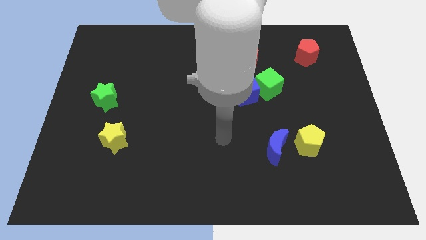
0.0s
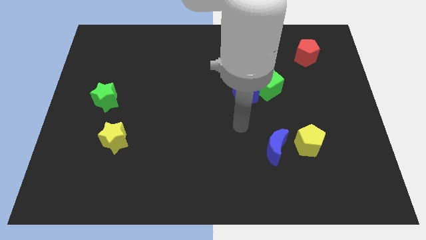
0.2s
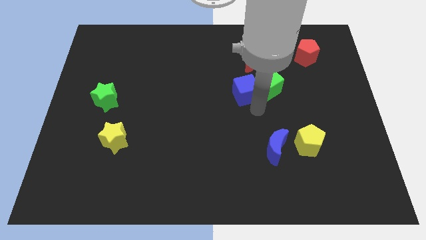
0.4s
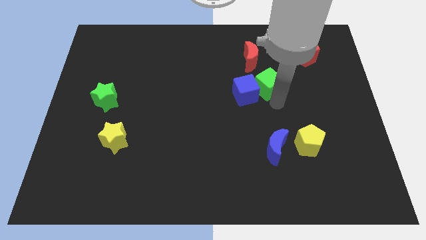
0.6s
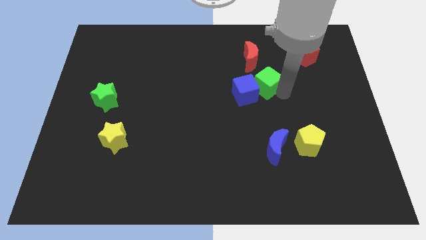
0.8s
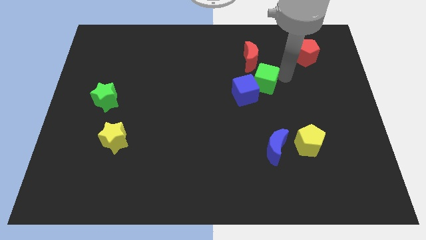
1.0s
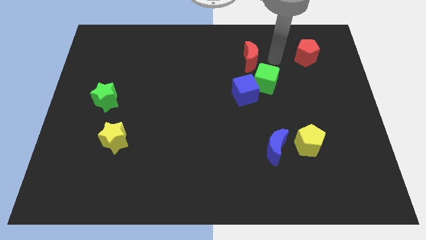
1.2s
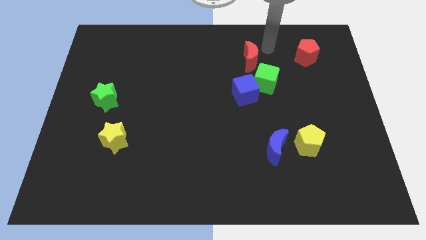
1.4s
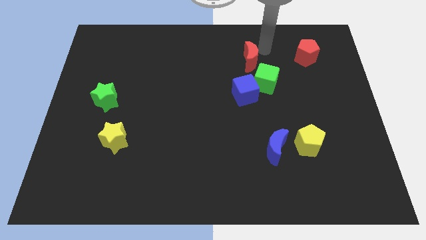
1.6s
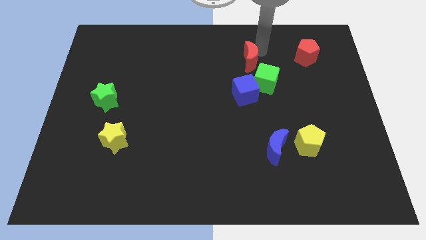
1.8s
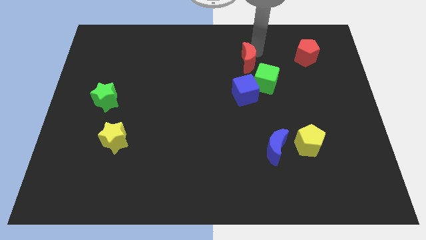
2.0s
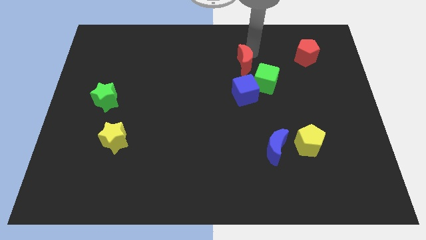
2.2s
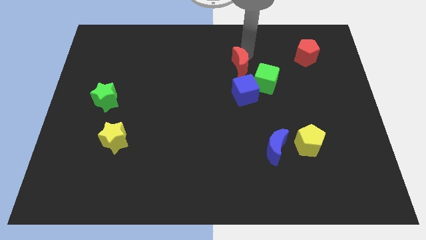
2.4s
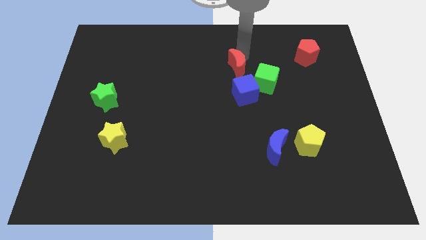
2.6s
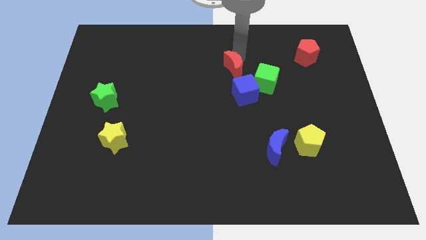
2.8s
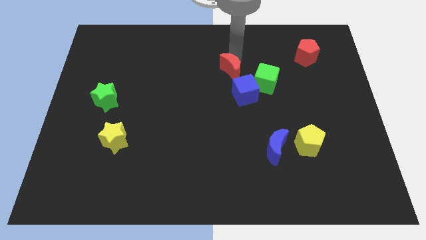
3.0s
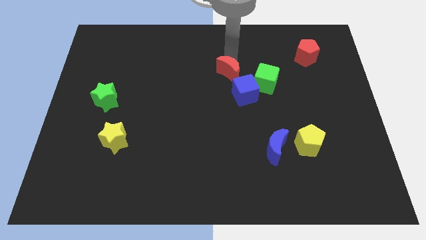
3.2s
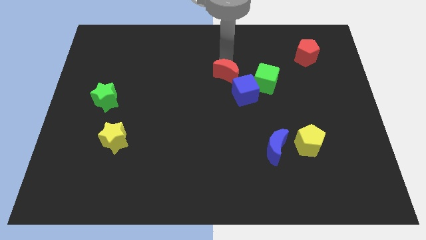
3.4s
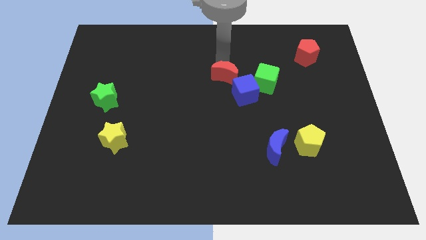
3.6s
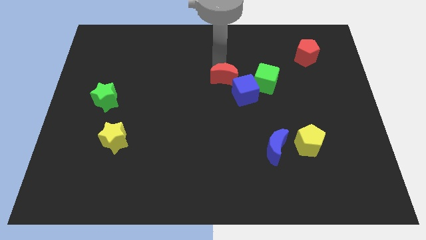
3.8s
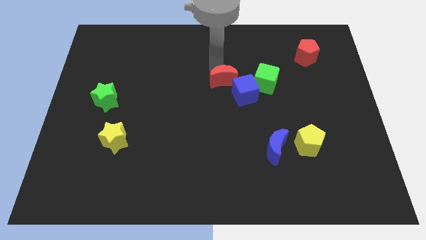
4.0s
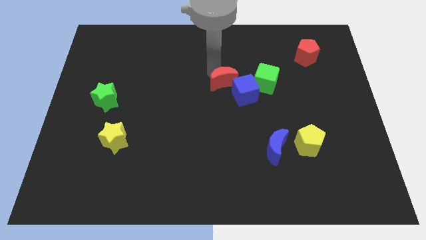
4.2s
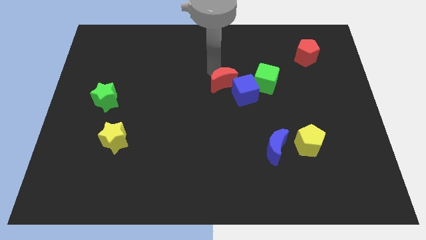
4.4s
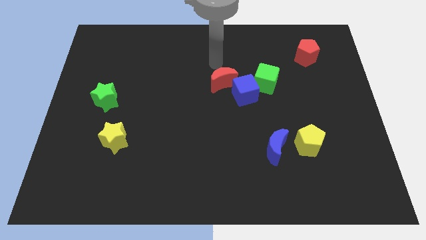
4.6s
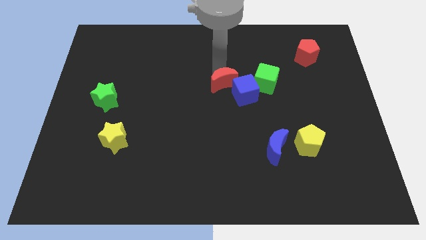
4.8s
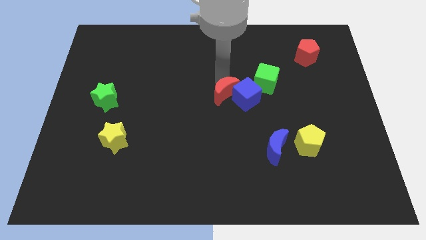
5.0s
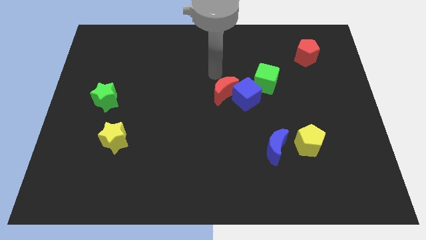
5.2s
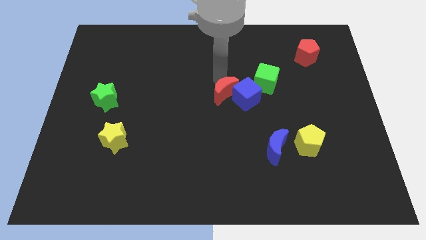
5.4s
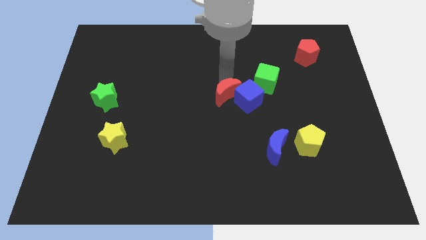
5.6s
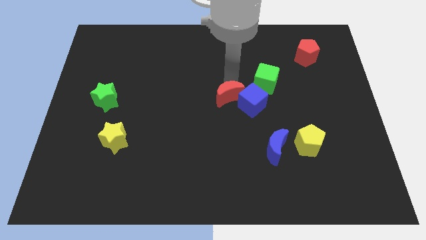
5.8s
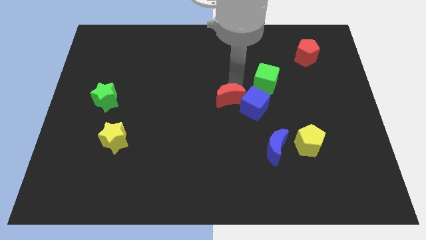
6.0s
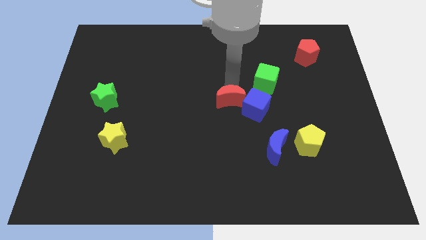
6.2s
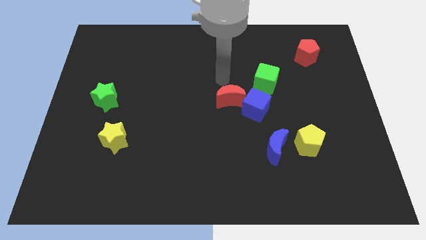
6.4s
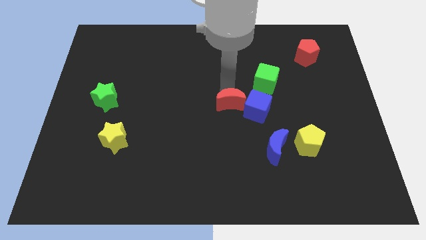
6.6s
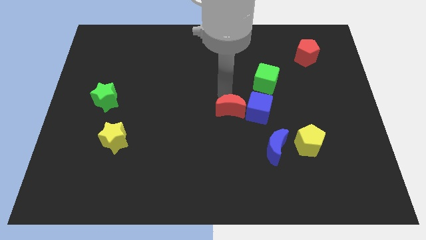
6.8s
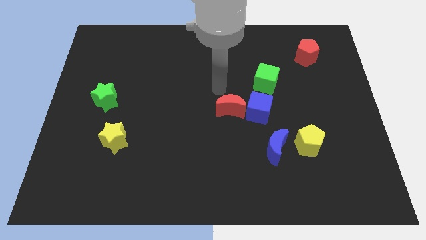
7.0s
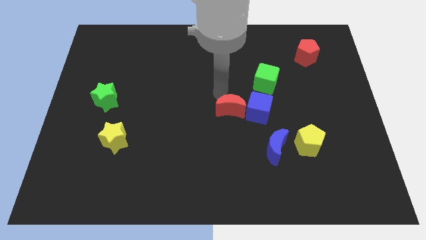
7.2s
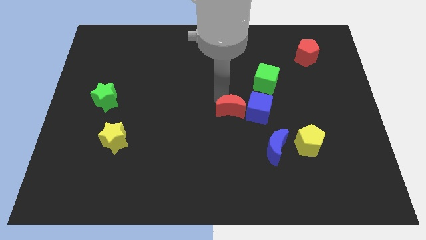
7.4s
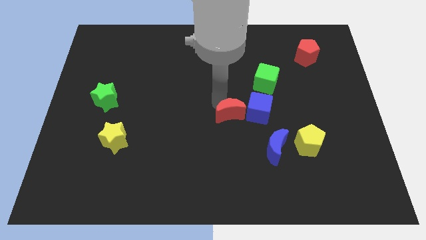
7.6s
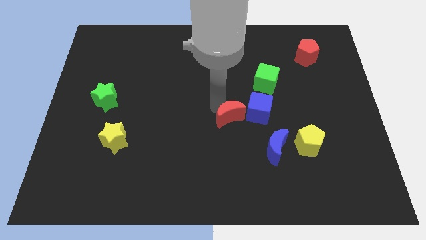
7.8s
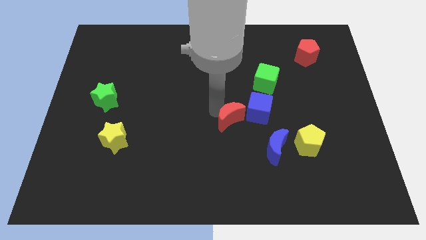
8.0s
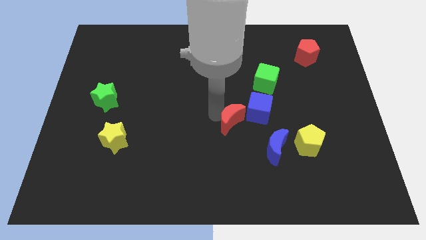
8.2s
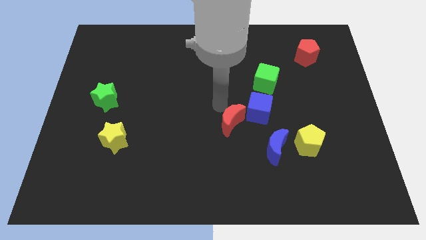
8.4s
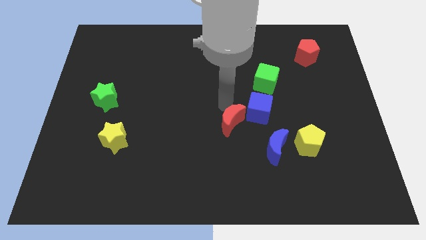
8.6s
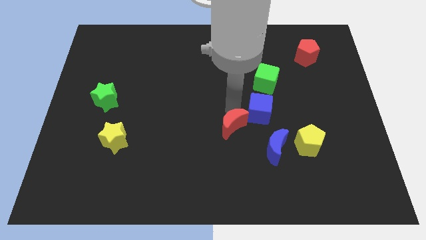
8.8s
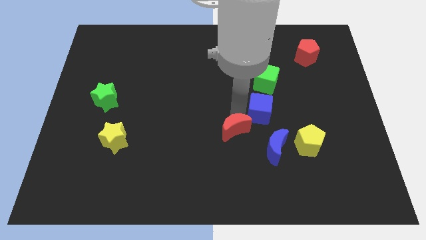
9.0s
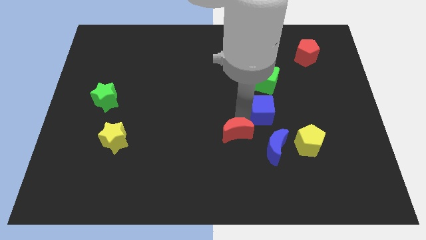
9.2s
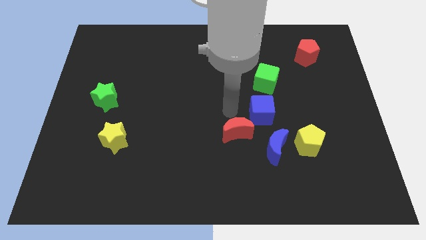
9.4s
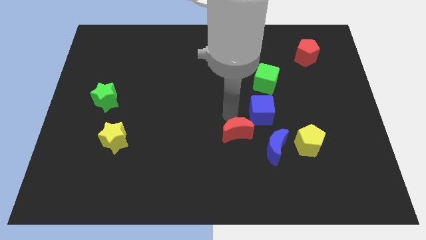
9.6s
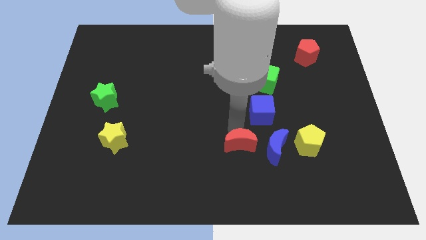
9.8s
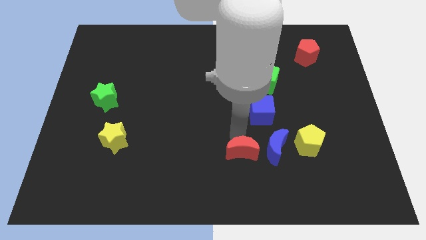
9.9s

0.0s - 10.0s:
slide the red moon to the bottom left of the blue moon

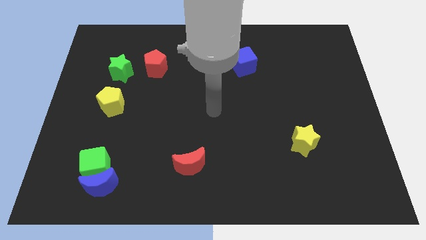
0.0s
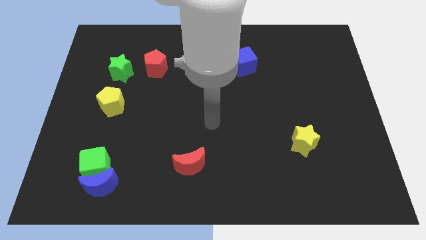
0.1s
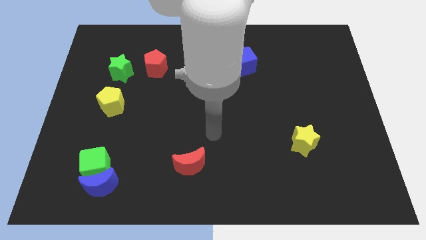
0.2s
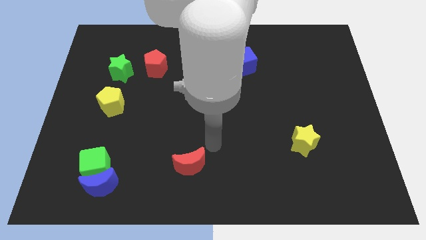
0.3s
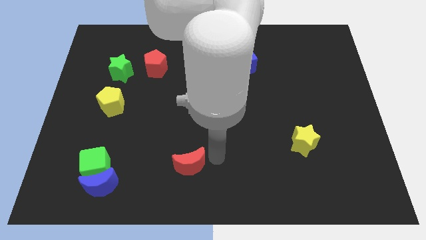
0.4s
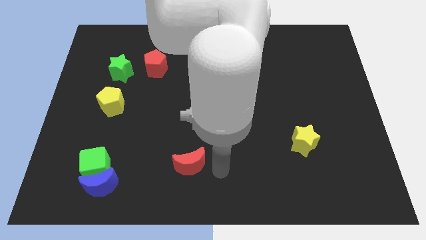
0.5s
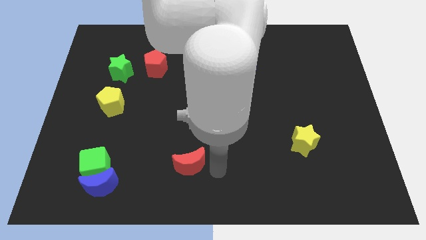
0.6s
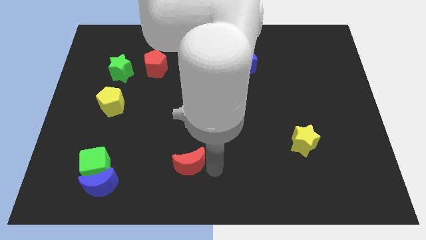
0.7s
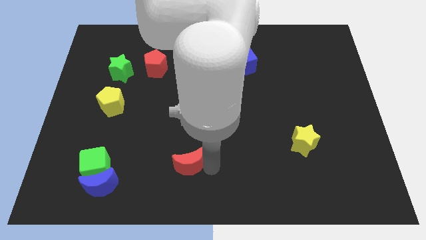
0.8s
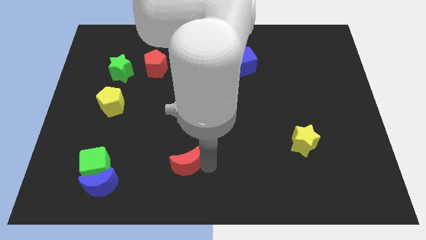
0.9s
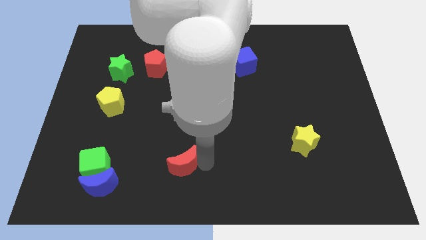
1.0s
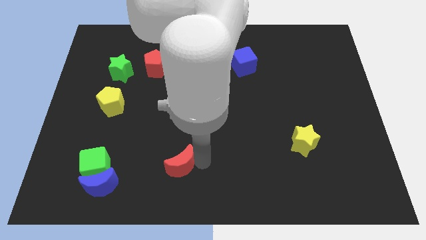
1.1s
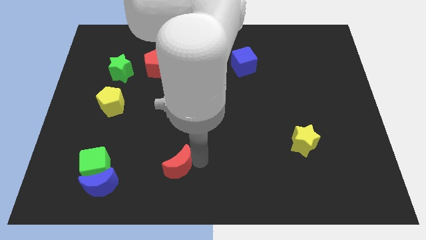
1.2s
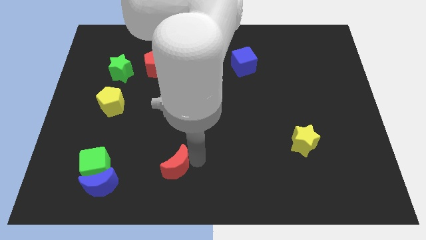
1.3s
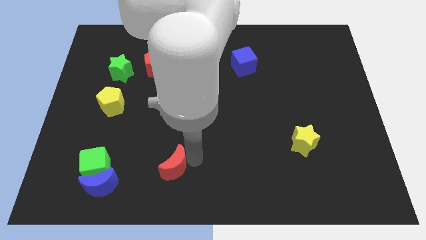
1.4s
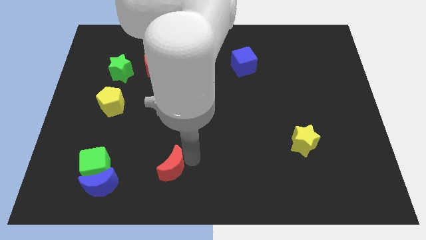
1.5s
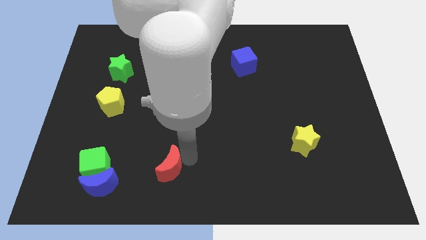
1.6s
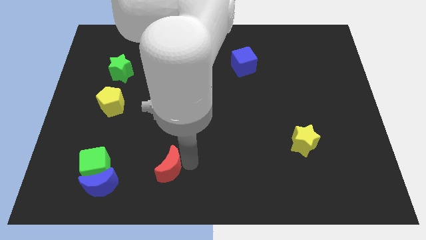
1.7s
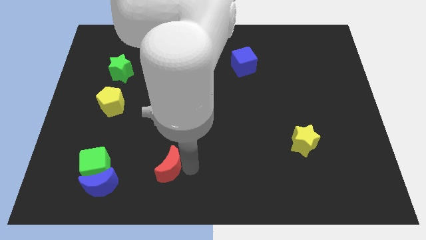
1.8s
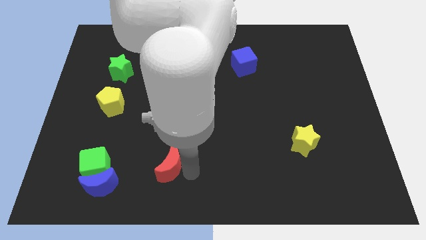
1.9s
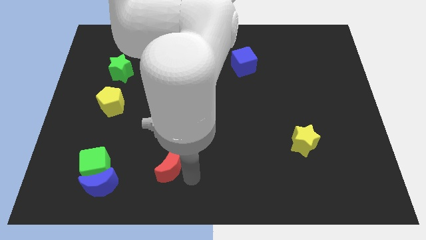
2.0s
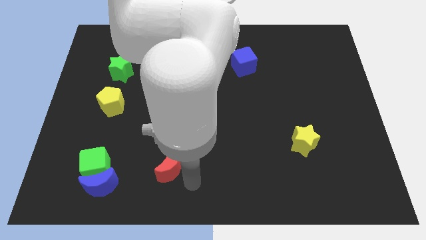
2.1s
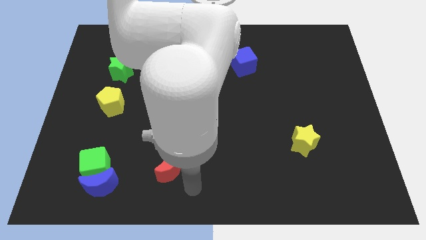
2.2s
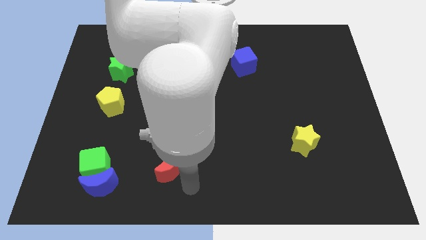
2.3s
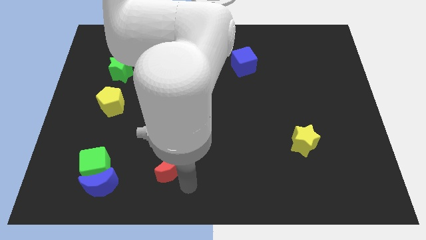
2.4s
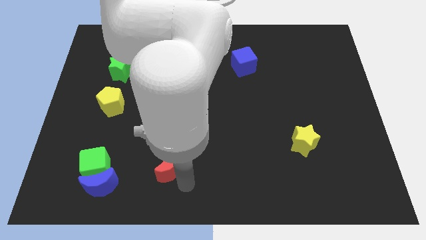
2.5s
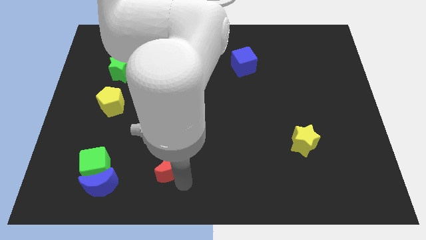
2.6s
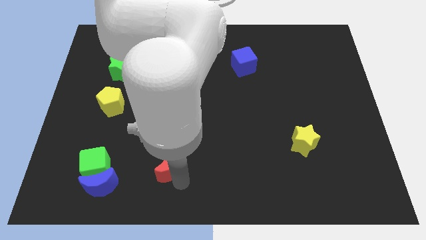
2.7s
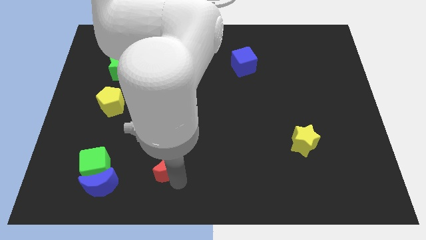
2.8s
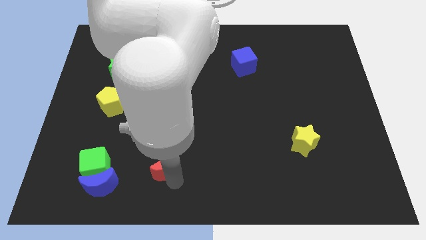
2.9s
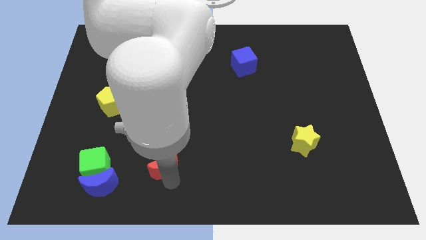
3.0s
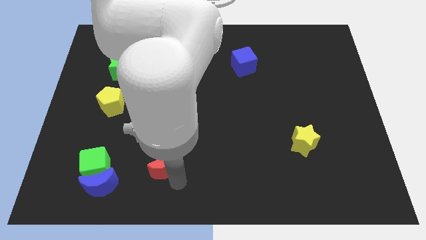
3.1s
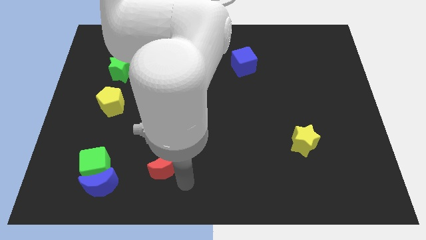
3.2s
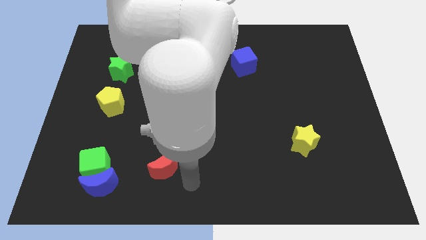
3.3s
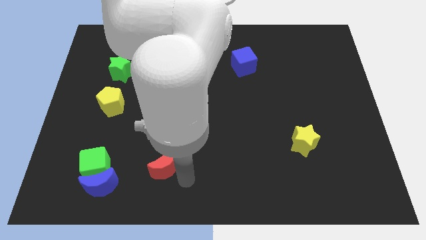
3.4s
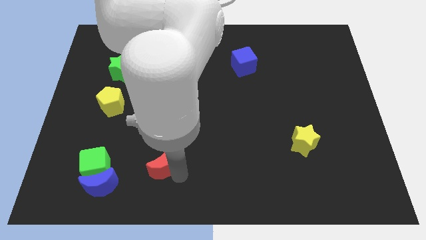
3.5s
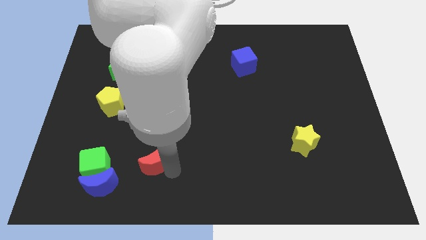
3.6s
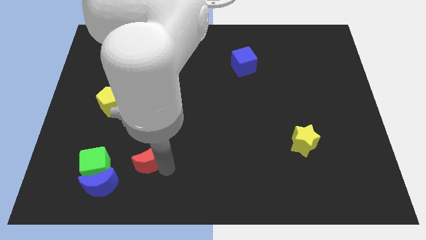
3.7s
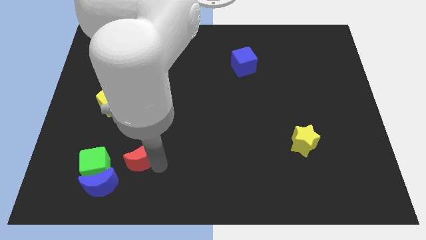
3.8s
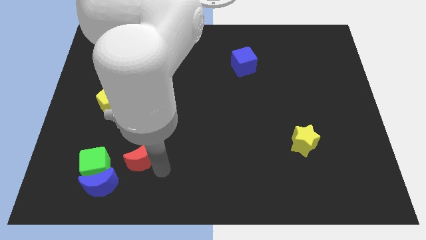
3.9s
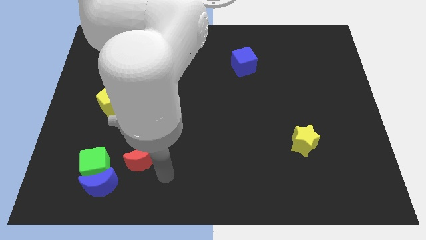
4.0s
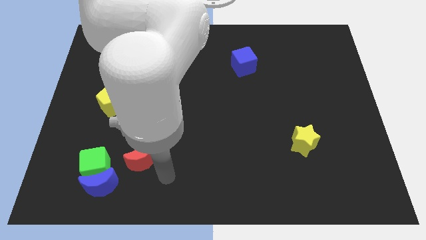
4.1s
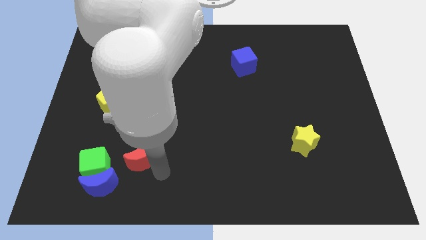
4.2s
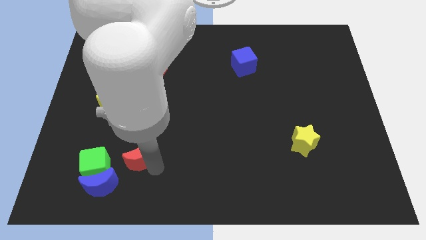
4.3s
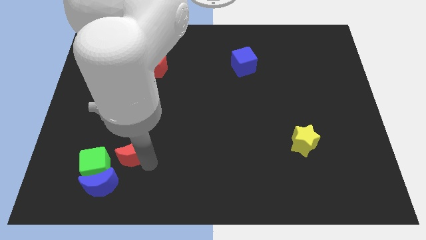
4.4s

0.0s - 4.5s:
push the red moon to the top right side of the green cube
